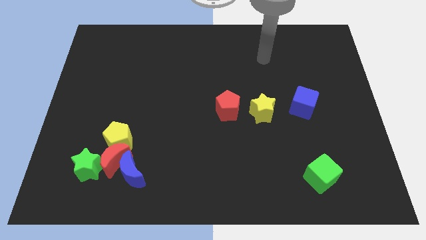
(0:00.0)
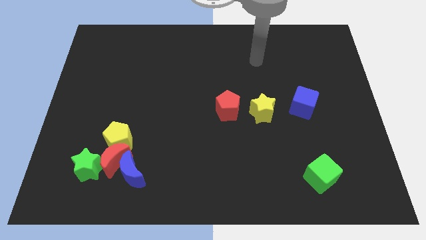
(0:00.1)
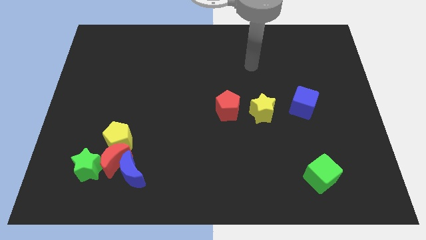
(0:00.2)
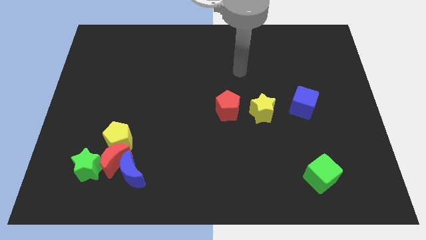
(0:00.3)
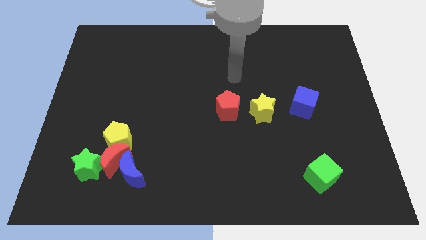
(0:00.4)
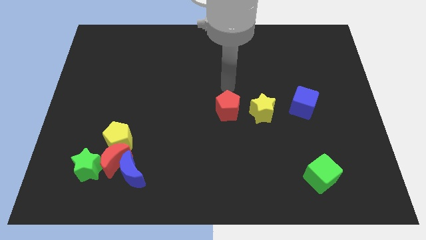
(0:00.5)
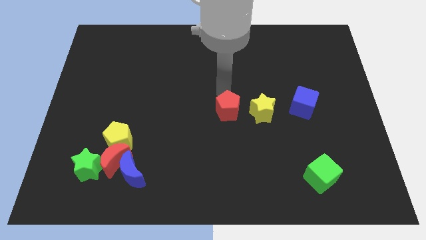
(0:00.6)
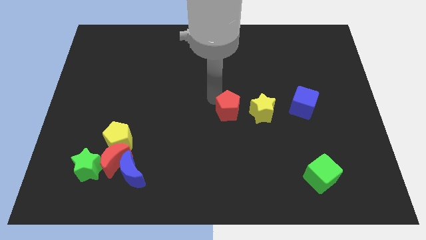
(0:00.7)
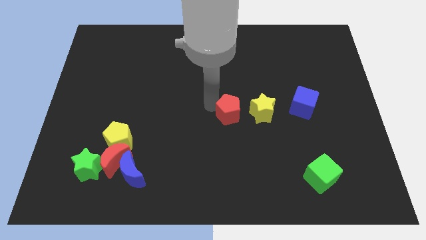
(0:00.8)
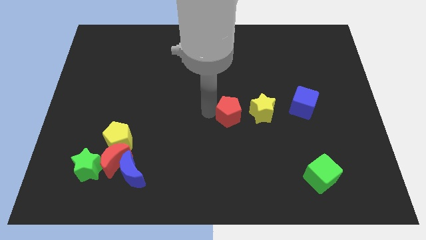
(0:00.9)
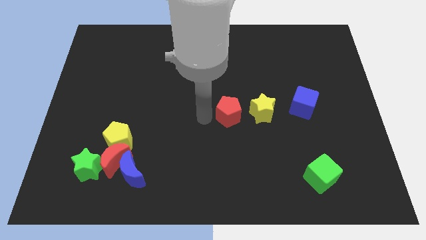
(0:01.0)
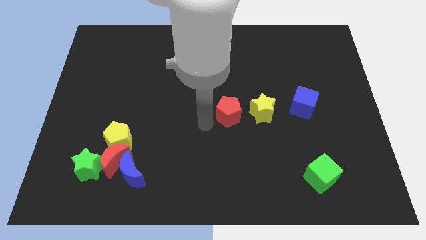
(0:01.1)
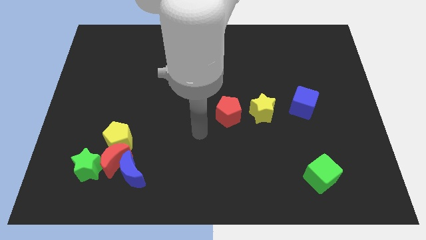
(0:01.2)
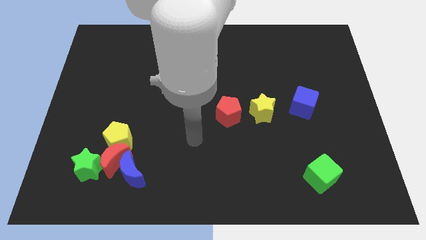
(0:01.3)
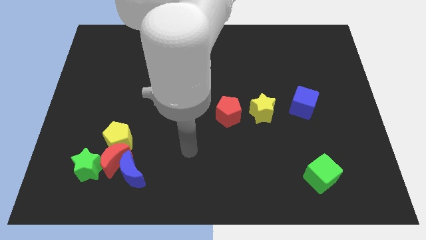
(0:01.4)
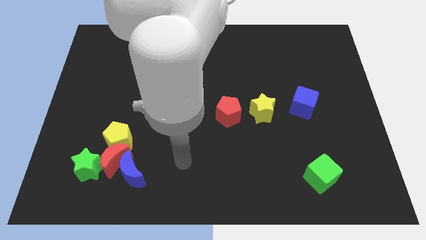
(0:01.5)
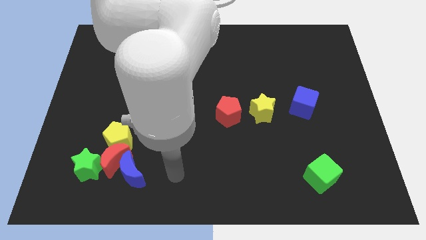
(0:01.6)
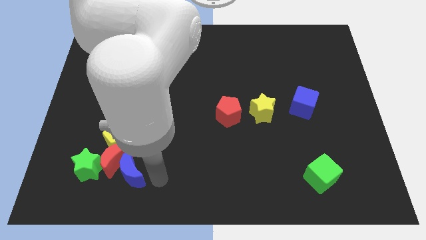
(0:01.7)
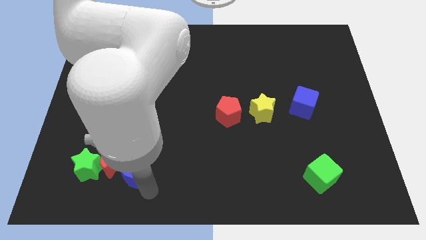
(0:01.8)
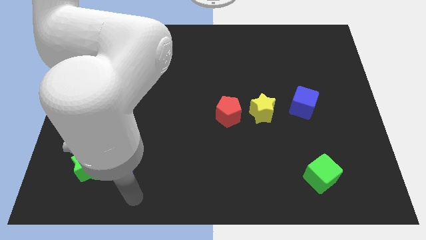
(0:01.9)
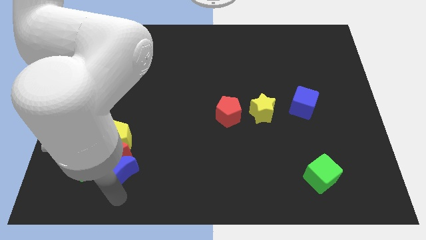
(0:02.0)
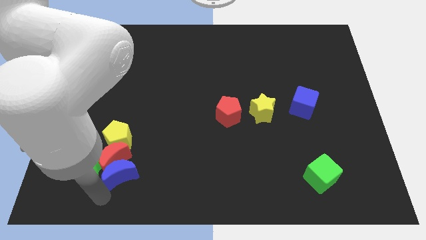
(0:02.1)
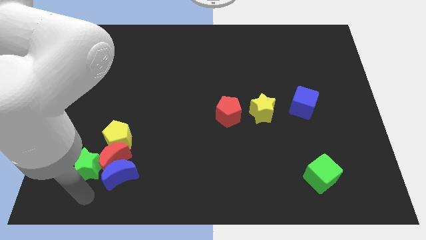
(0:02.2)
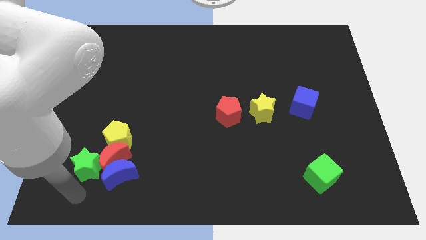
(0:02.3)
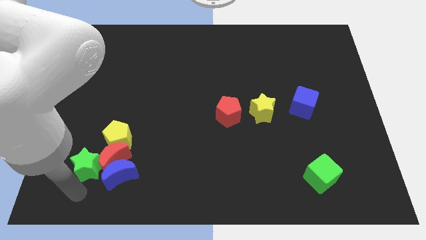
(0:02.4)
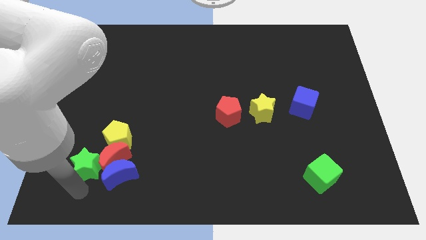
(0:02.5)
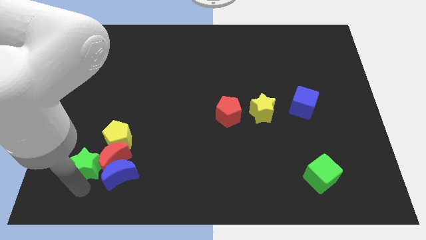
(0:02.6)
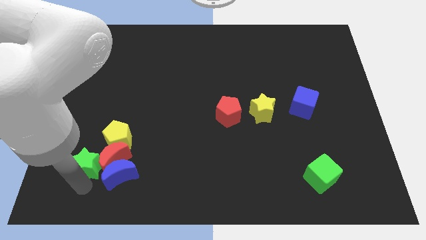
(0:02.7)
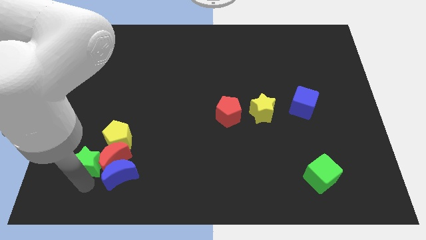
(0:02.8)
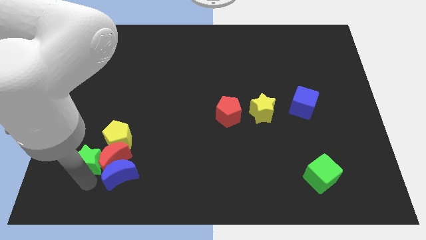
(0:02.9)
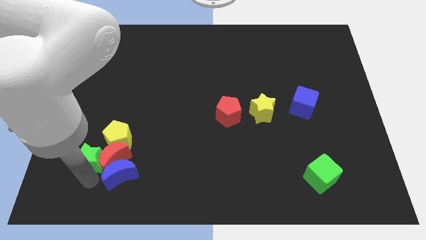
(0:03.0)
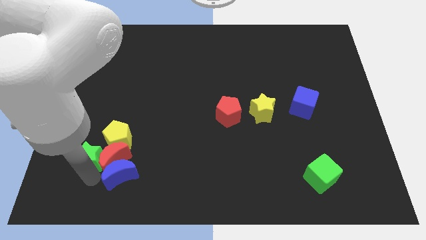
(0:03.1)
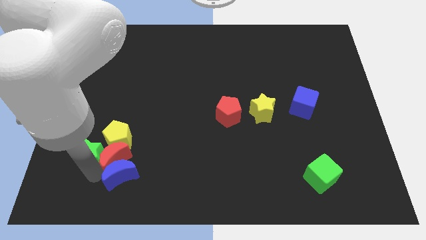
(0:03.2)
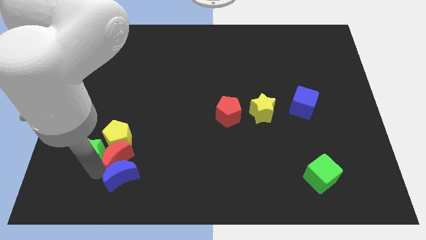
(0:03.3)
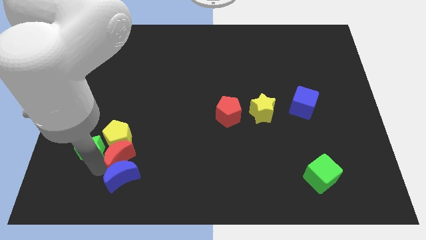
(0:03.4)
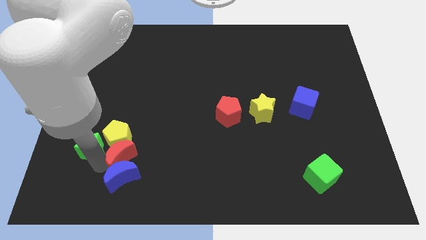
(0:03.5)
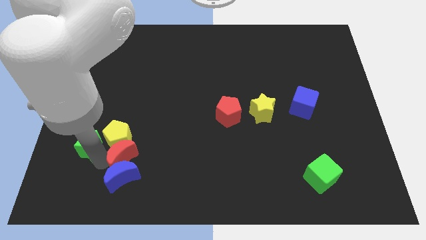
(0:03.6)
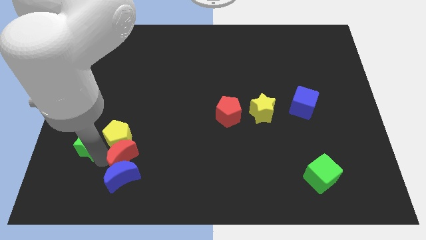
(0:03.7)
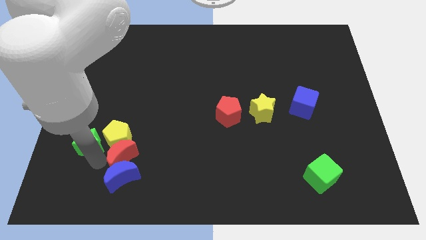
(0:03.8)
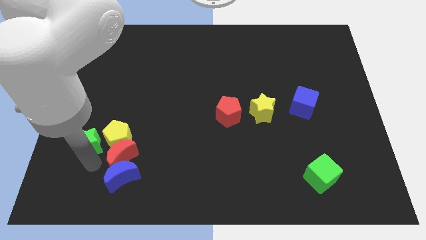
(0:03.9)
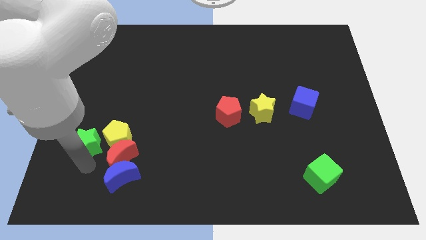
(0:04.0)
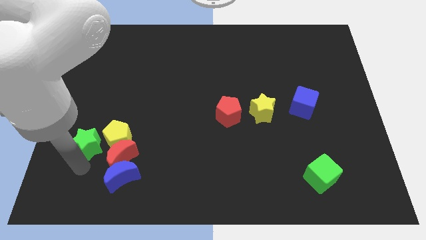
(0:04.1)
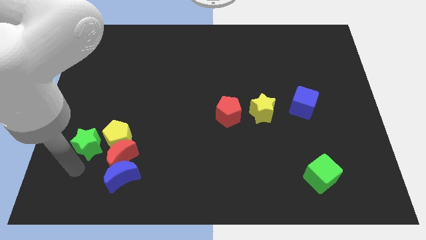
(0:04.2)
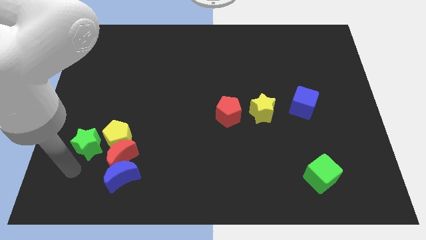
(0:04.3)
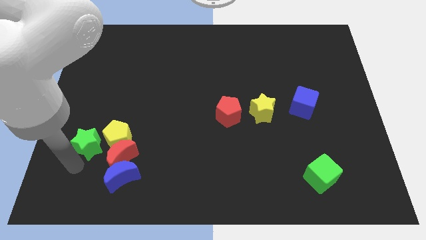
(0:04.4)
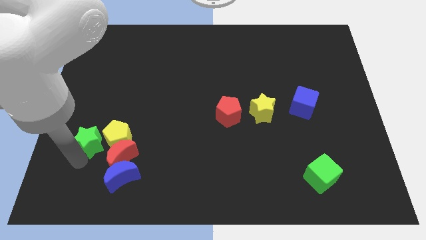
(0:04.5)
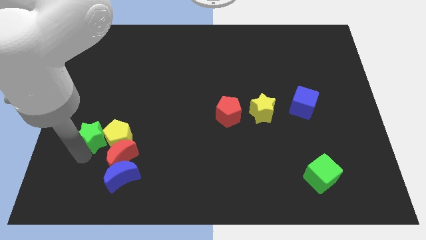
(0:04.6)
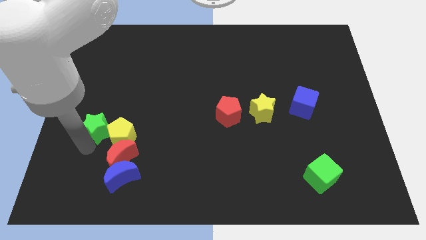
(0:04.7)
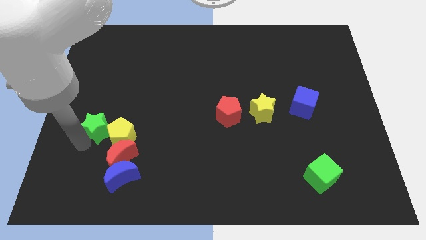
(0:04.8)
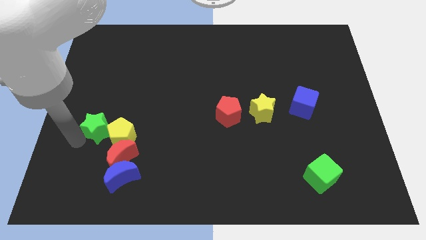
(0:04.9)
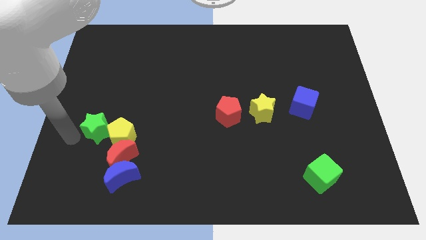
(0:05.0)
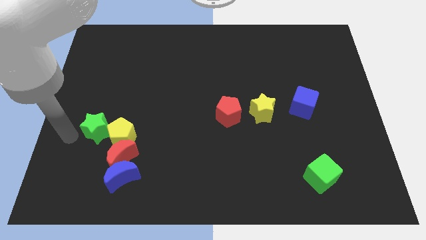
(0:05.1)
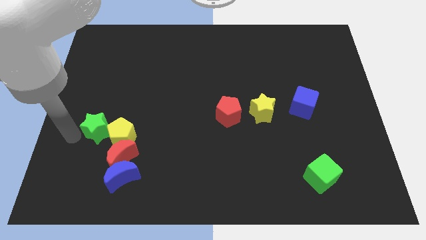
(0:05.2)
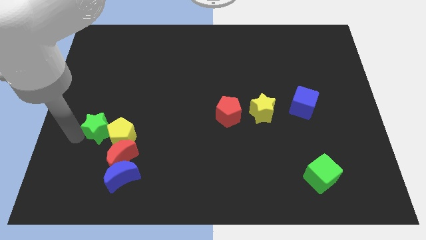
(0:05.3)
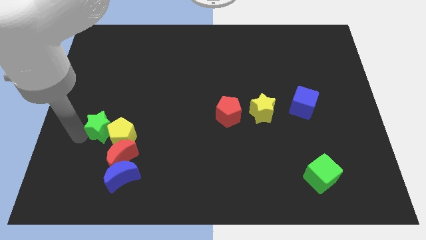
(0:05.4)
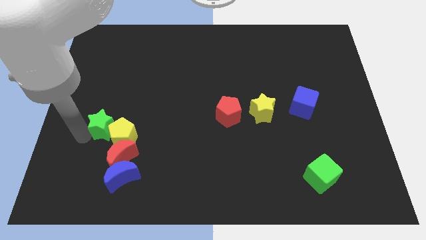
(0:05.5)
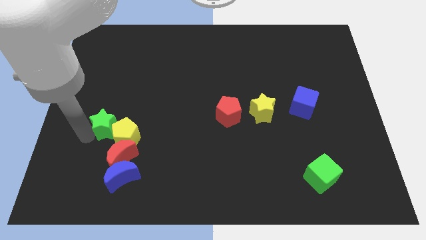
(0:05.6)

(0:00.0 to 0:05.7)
push the green star a bit upwards and right diagonally

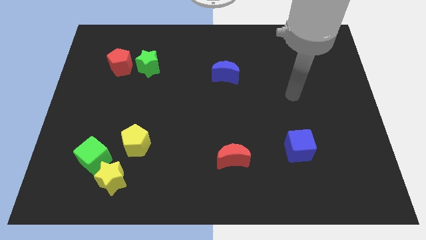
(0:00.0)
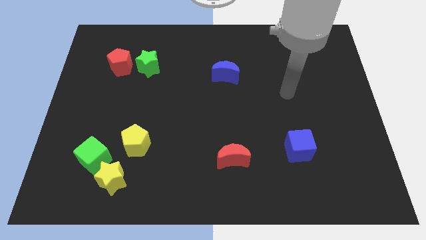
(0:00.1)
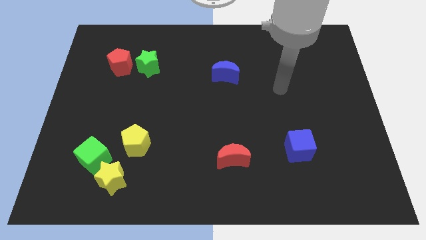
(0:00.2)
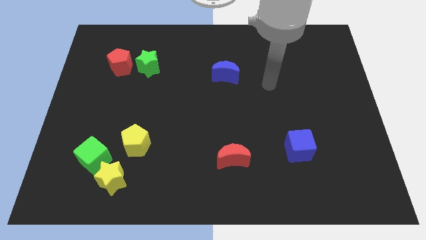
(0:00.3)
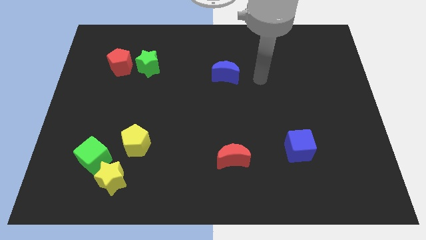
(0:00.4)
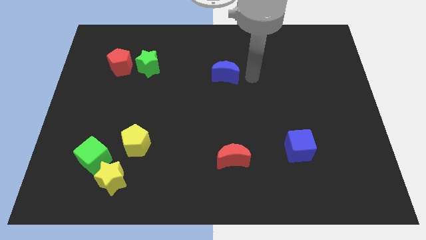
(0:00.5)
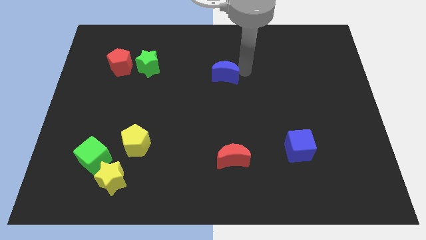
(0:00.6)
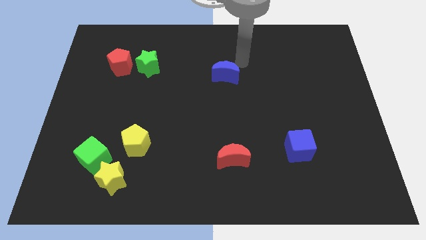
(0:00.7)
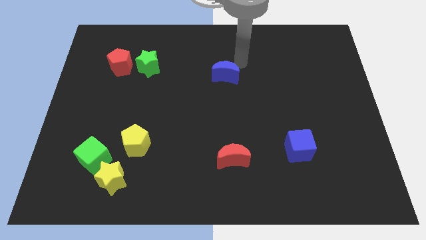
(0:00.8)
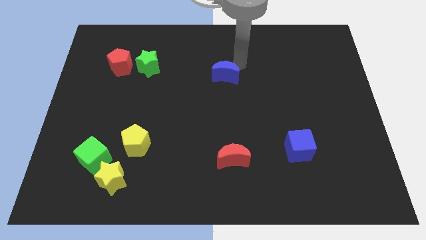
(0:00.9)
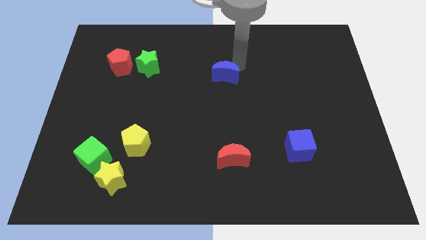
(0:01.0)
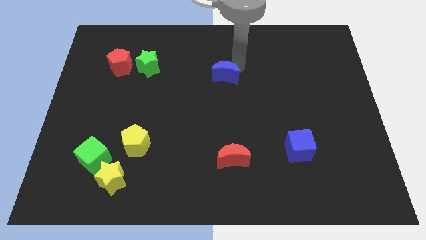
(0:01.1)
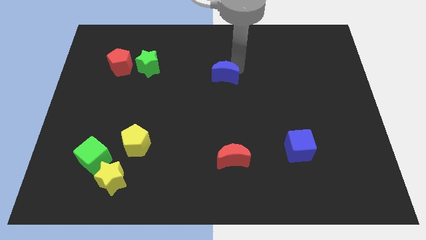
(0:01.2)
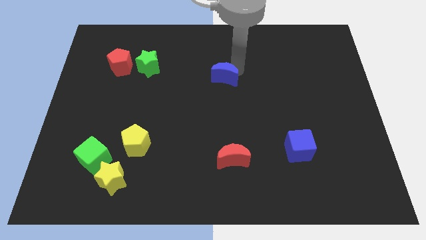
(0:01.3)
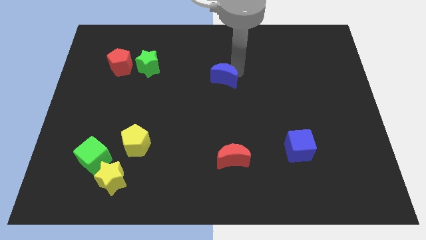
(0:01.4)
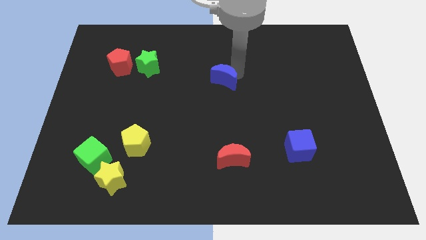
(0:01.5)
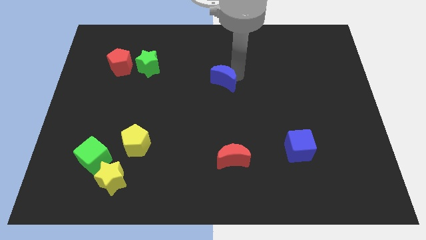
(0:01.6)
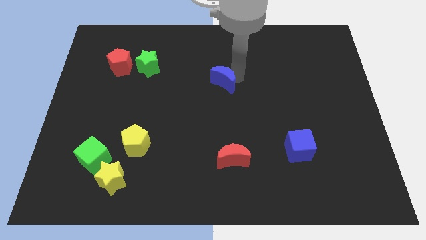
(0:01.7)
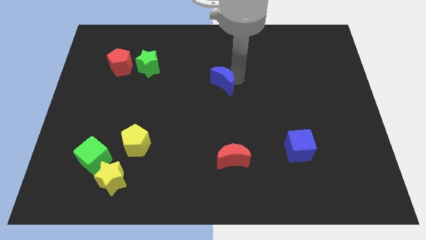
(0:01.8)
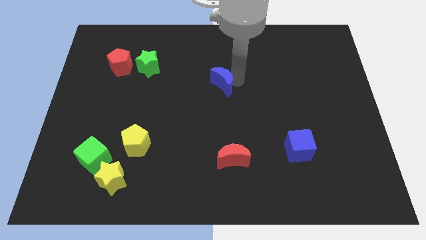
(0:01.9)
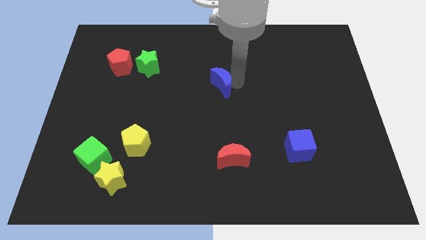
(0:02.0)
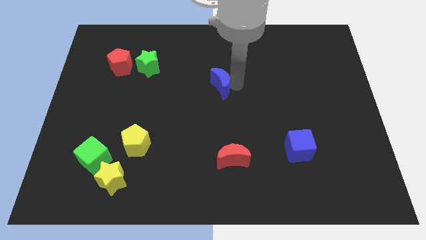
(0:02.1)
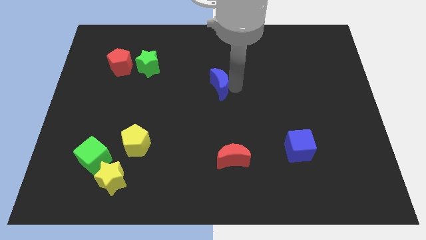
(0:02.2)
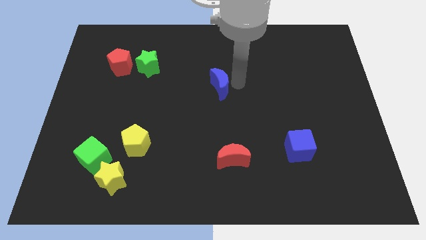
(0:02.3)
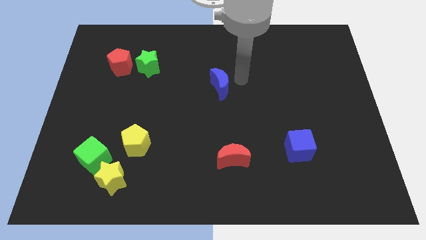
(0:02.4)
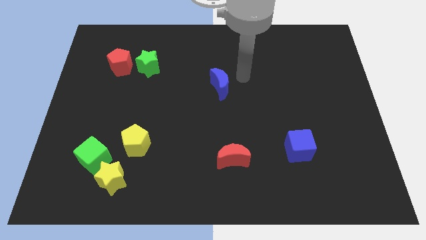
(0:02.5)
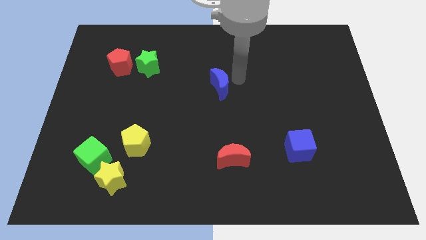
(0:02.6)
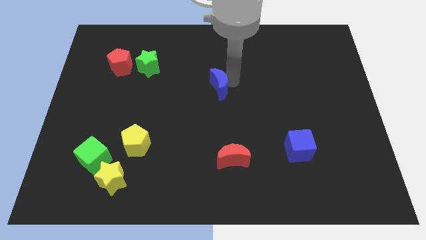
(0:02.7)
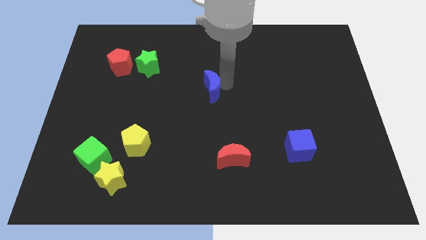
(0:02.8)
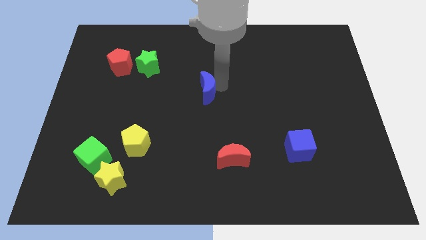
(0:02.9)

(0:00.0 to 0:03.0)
slightly slide the blue moon down and then to the left
